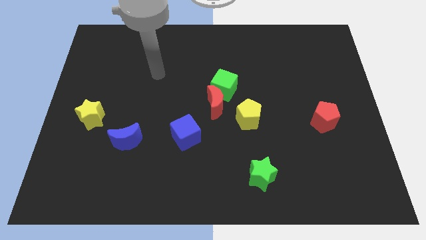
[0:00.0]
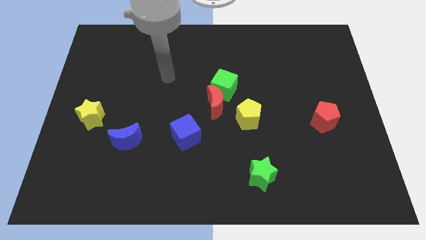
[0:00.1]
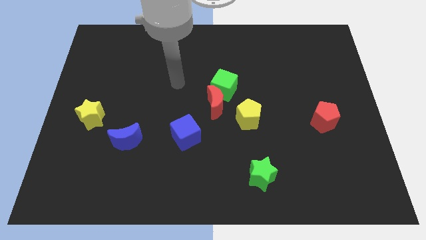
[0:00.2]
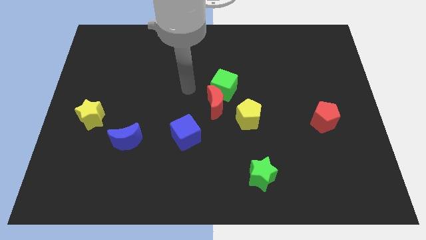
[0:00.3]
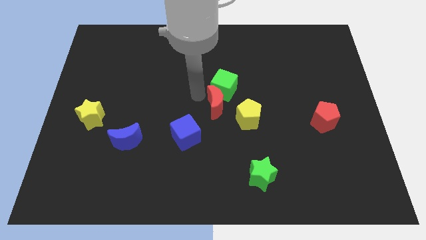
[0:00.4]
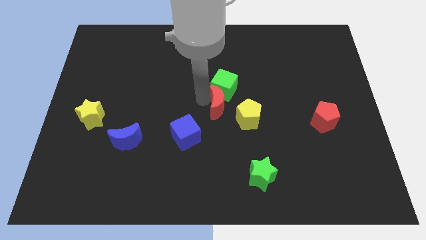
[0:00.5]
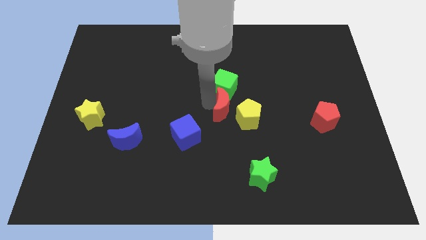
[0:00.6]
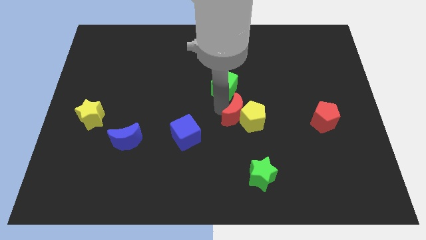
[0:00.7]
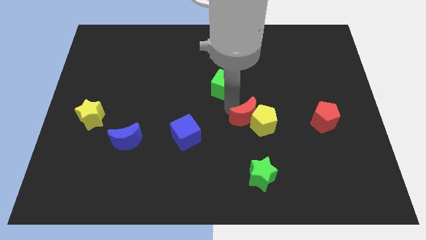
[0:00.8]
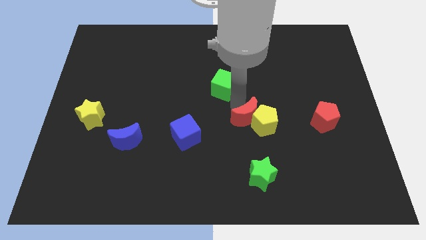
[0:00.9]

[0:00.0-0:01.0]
pull the green cube apart from the red moon

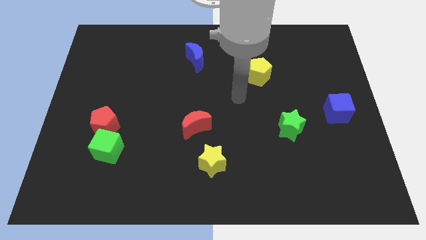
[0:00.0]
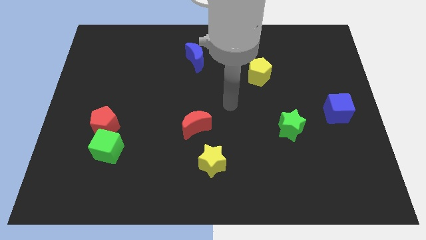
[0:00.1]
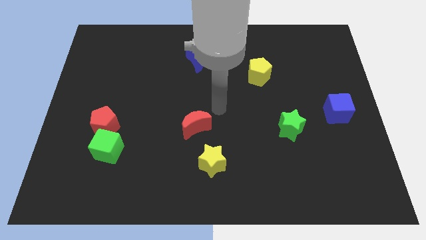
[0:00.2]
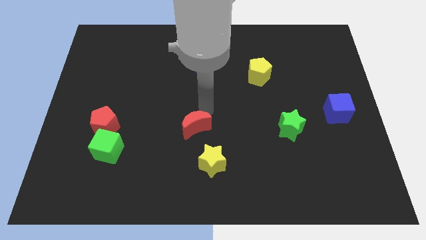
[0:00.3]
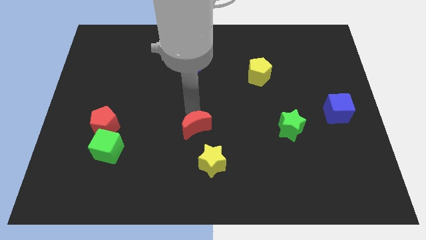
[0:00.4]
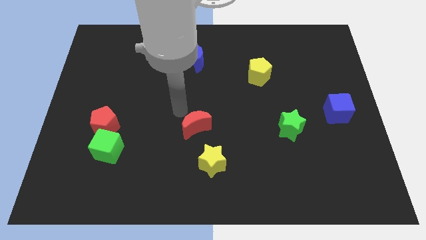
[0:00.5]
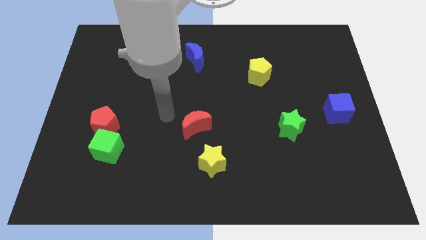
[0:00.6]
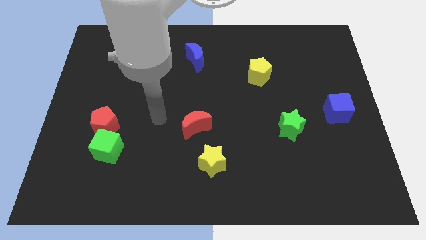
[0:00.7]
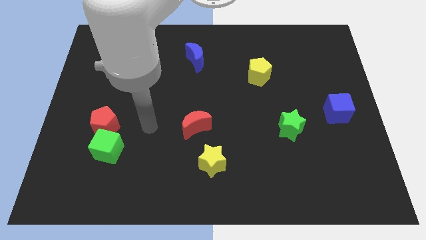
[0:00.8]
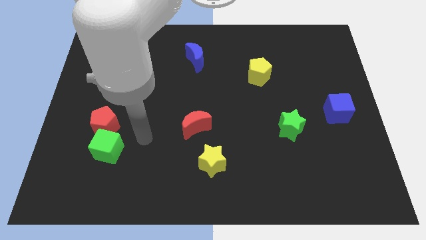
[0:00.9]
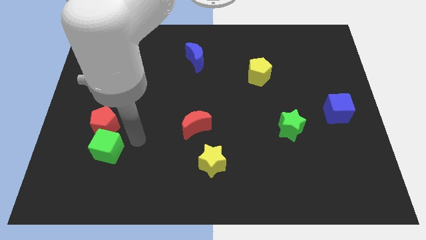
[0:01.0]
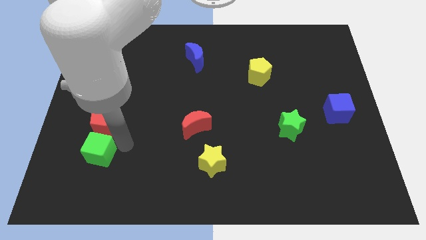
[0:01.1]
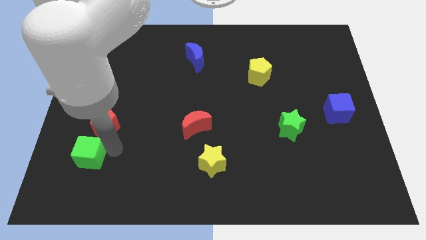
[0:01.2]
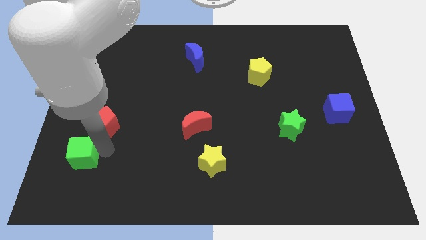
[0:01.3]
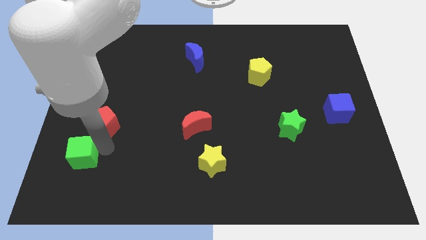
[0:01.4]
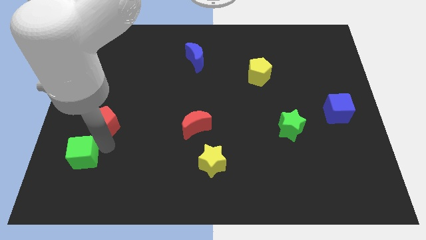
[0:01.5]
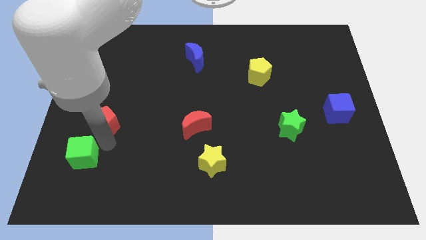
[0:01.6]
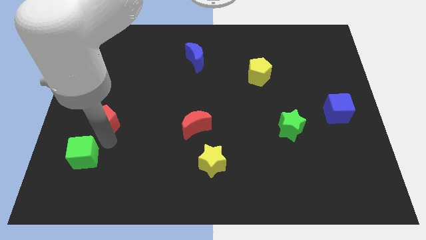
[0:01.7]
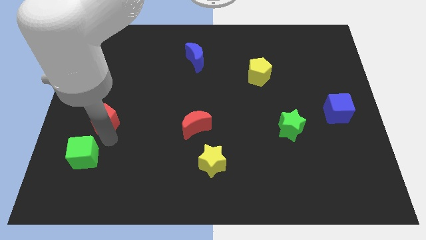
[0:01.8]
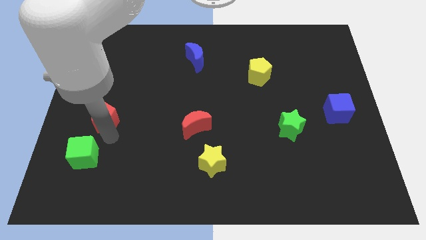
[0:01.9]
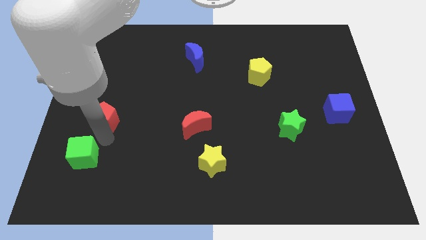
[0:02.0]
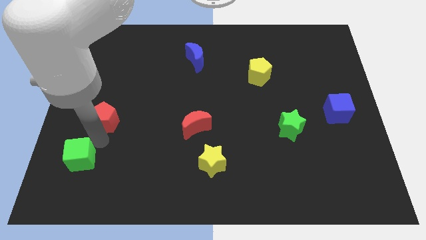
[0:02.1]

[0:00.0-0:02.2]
move the red pentagon away from the green cube

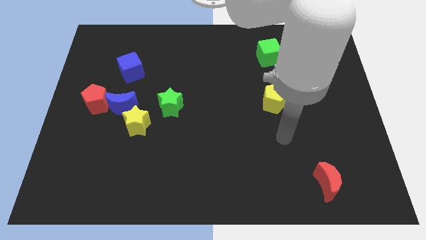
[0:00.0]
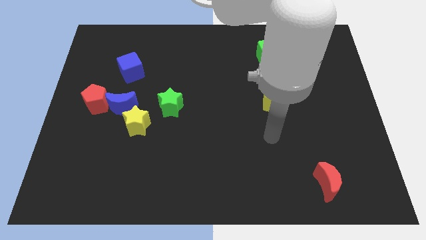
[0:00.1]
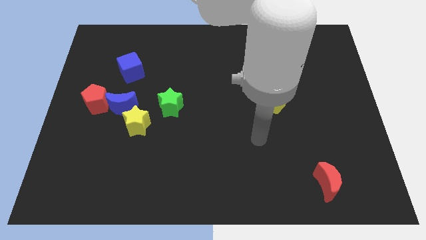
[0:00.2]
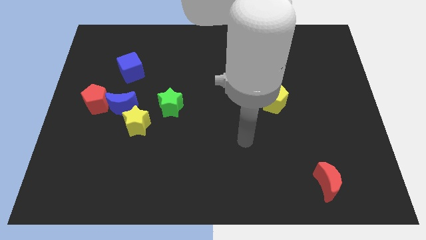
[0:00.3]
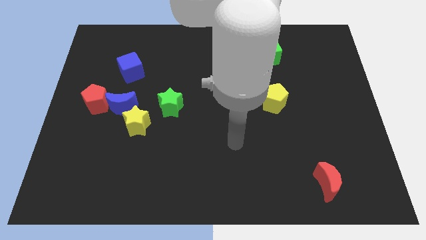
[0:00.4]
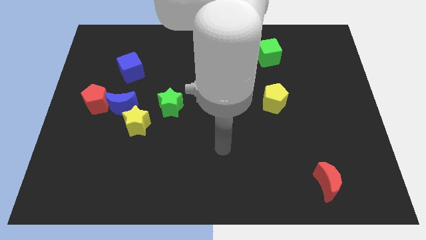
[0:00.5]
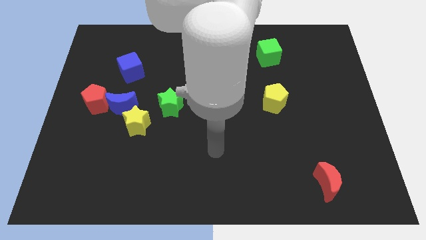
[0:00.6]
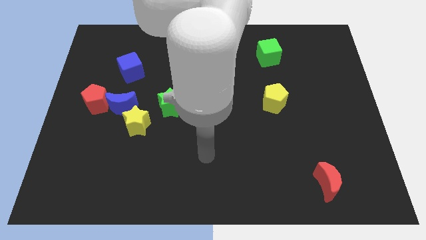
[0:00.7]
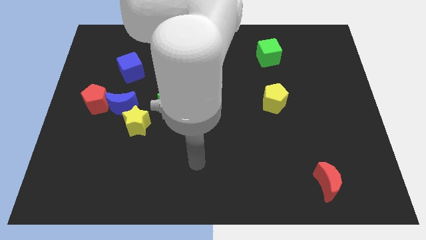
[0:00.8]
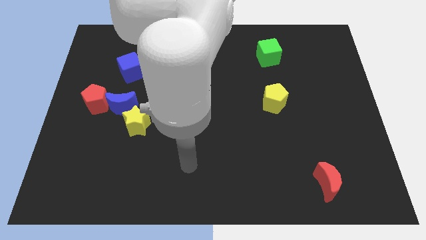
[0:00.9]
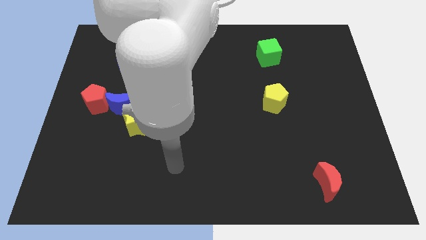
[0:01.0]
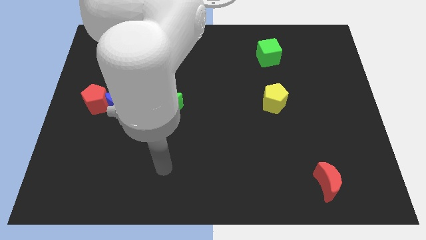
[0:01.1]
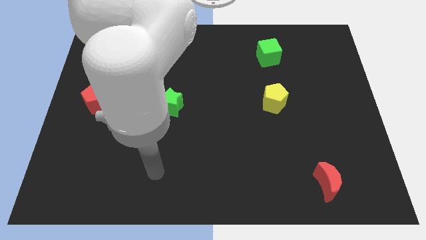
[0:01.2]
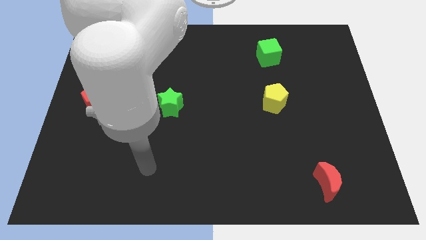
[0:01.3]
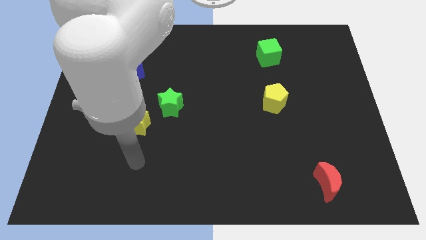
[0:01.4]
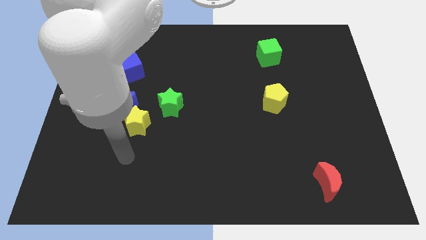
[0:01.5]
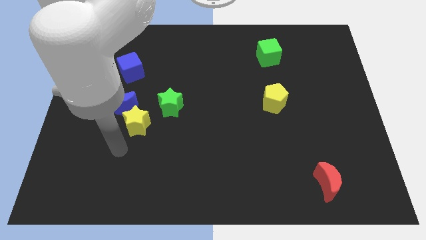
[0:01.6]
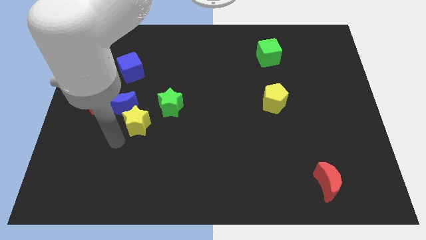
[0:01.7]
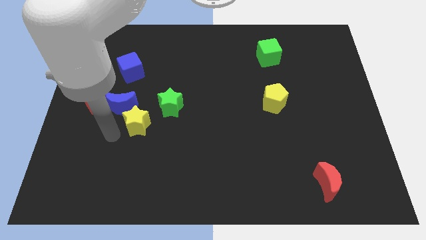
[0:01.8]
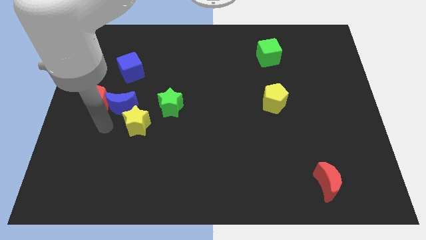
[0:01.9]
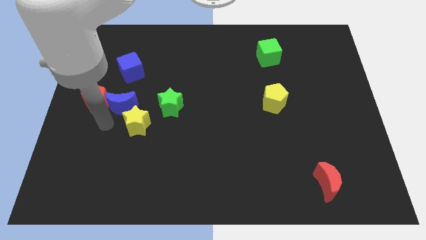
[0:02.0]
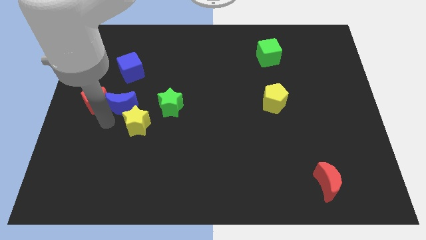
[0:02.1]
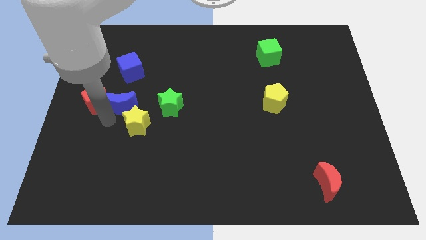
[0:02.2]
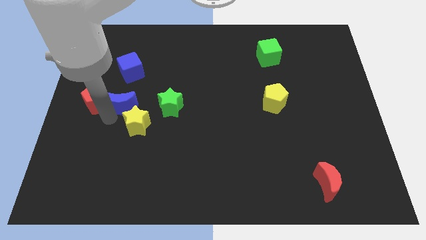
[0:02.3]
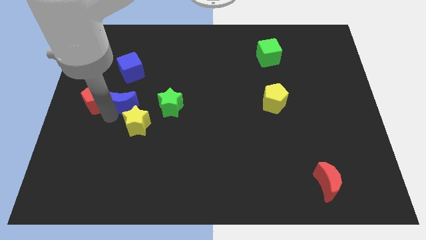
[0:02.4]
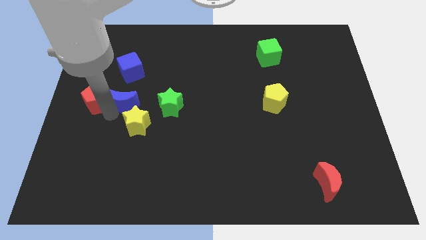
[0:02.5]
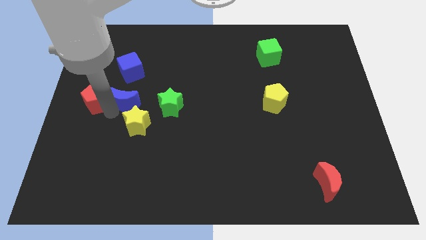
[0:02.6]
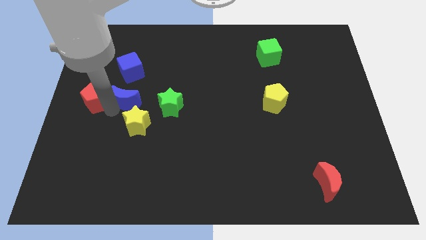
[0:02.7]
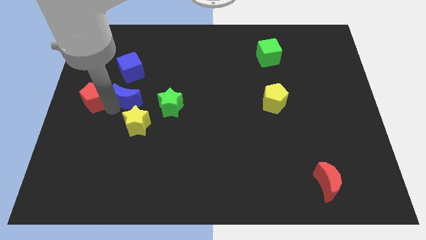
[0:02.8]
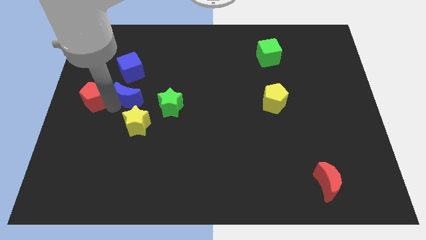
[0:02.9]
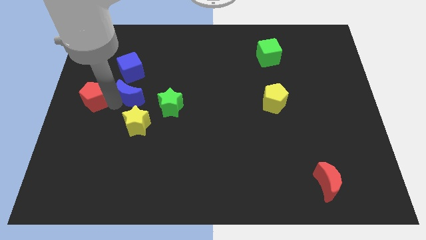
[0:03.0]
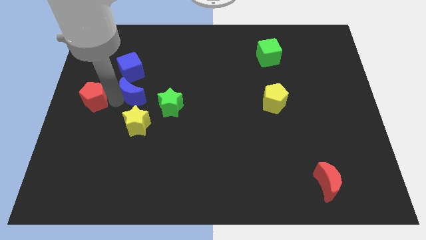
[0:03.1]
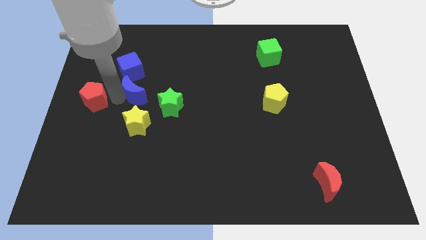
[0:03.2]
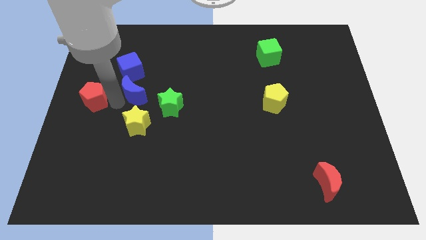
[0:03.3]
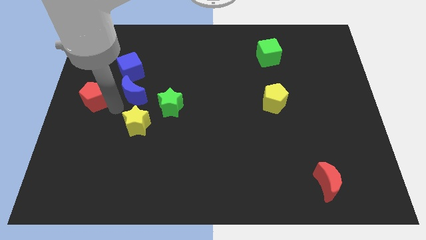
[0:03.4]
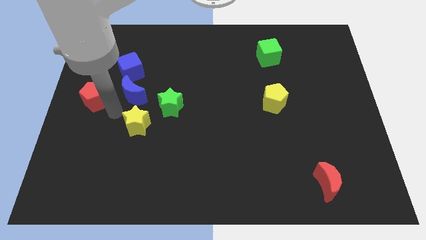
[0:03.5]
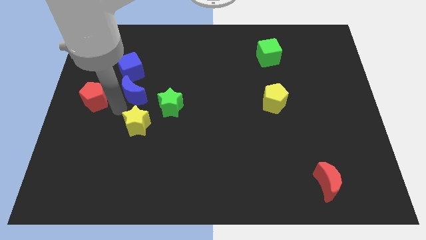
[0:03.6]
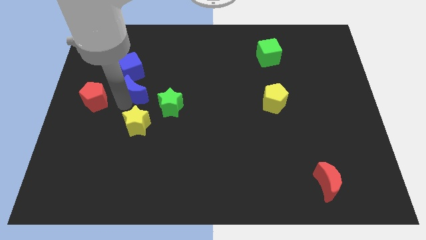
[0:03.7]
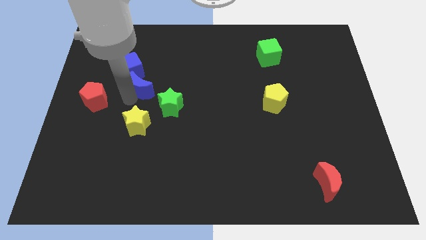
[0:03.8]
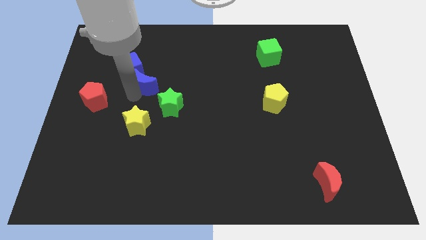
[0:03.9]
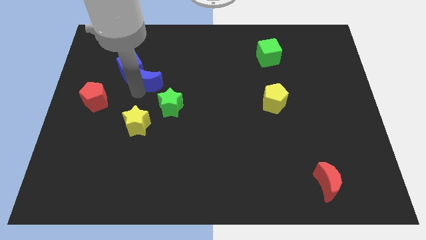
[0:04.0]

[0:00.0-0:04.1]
move the blue moon away from the yellow star and red pentagon

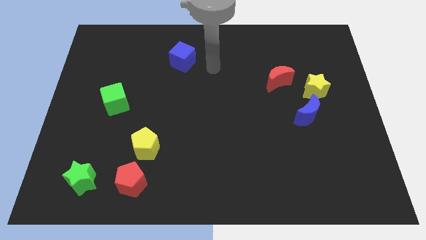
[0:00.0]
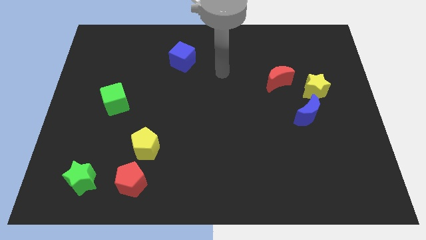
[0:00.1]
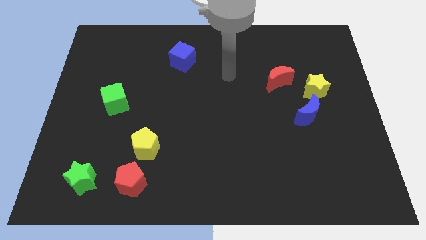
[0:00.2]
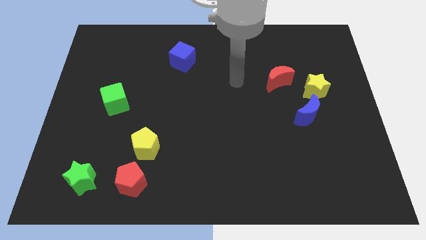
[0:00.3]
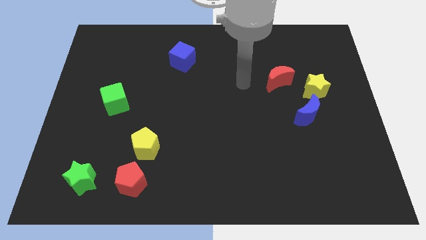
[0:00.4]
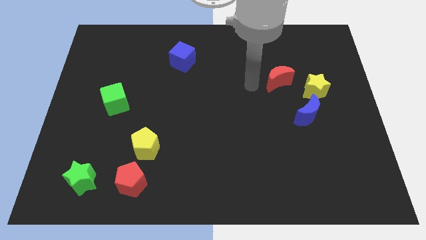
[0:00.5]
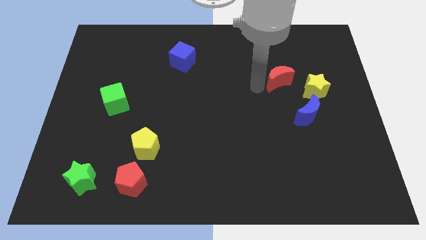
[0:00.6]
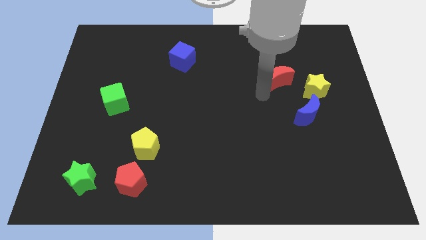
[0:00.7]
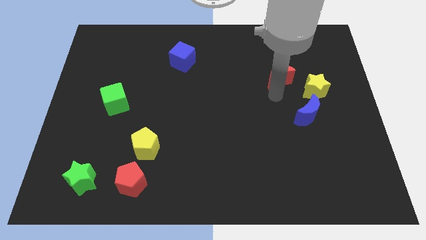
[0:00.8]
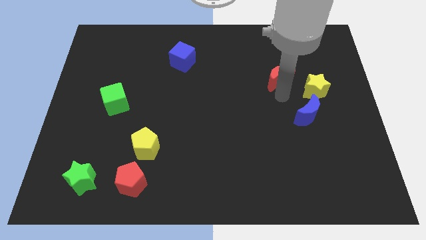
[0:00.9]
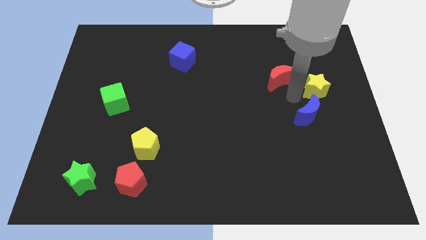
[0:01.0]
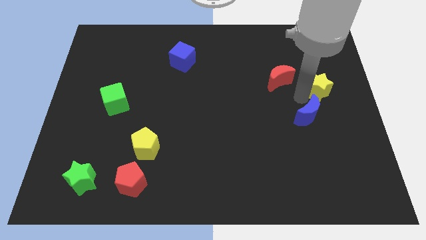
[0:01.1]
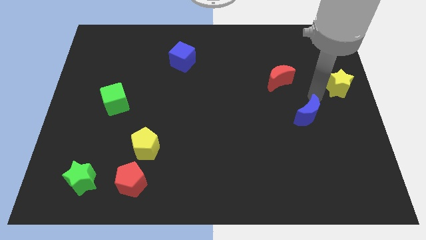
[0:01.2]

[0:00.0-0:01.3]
move the blue moon away from the yellow star

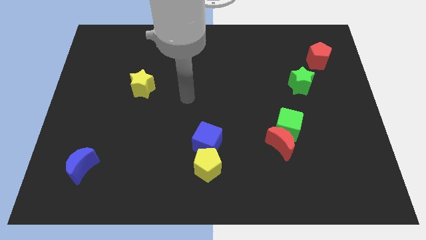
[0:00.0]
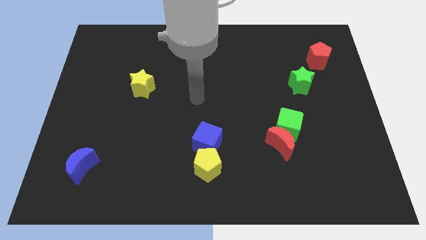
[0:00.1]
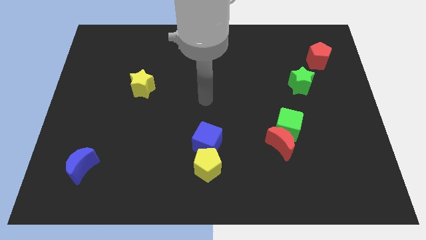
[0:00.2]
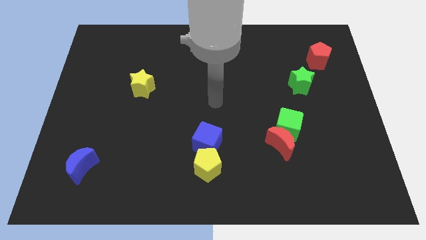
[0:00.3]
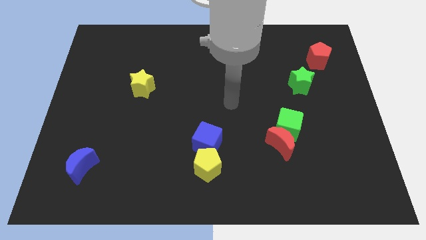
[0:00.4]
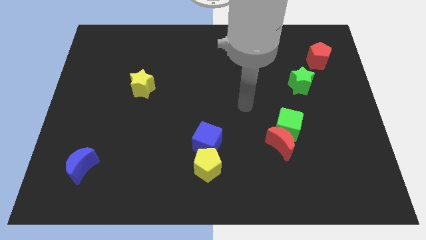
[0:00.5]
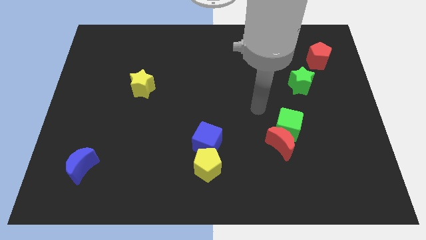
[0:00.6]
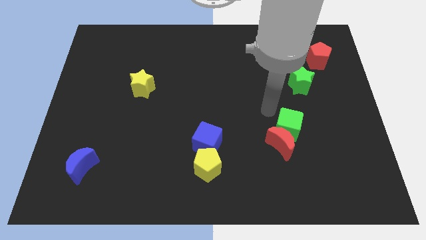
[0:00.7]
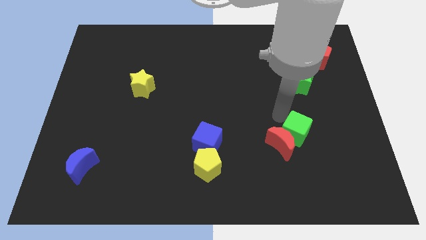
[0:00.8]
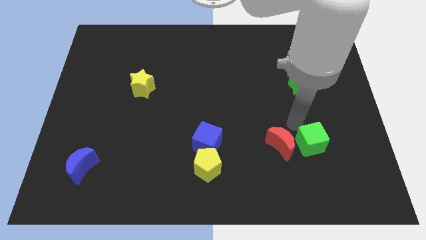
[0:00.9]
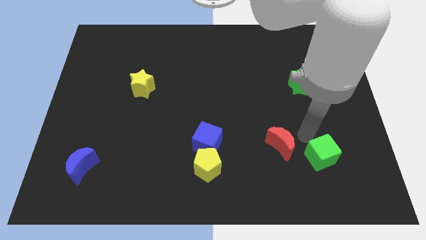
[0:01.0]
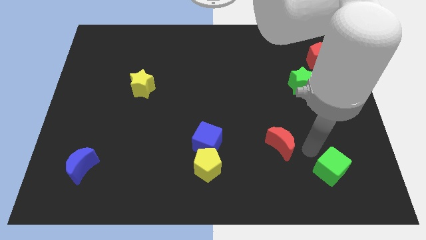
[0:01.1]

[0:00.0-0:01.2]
pull the red moon apart from the green cube
